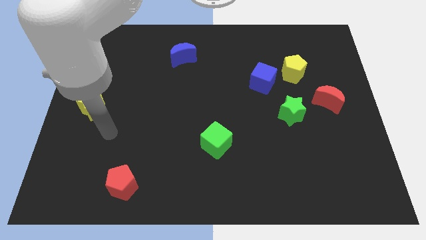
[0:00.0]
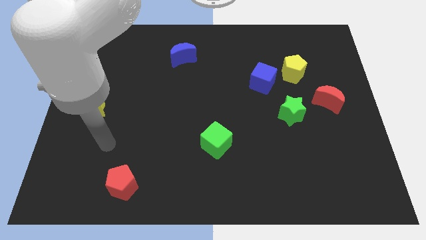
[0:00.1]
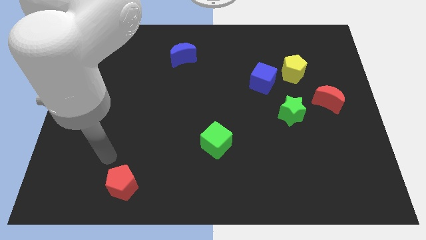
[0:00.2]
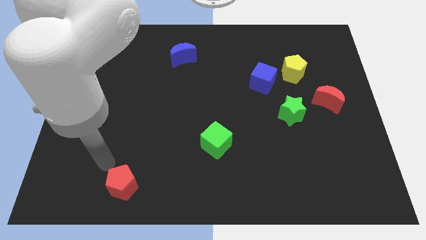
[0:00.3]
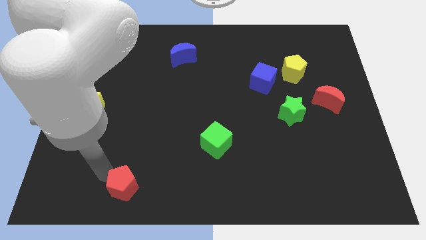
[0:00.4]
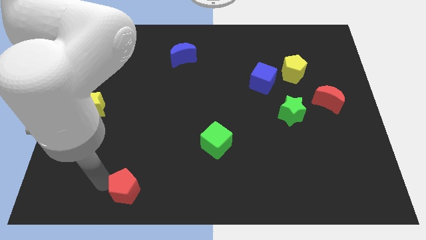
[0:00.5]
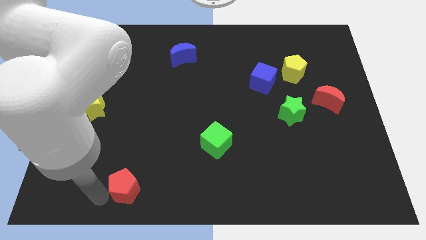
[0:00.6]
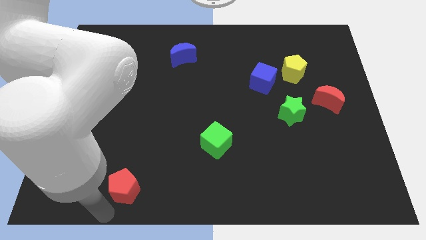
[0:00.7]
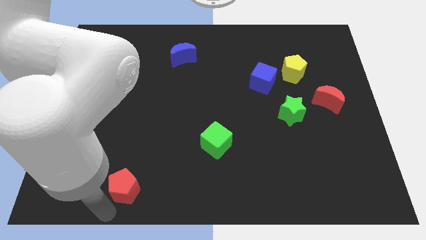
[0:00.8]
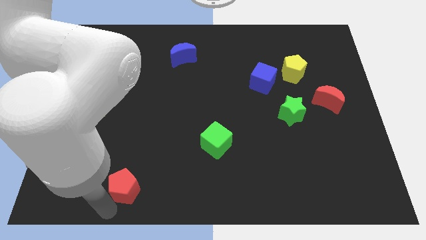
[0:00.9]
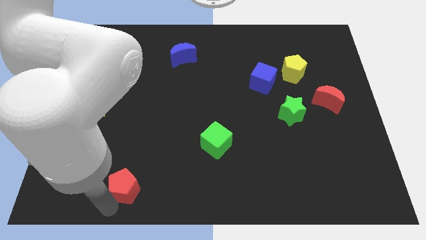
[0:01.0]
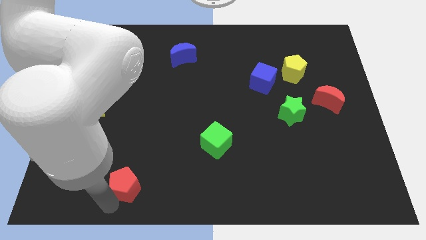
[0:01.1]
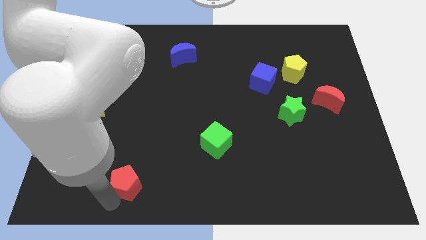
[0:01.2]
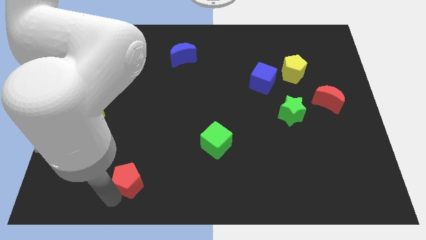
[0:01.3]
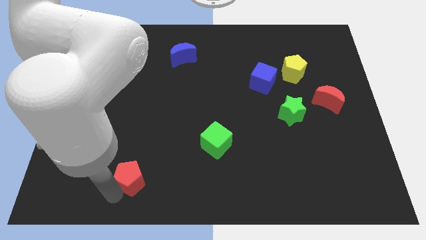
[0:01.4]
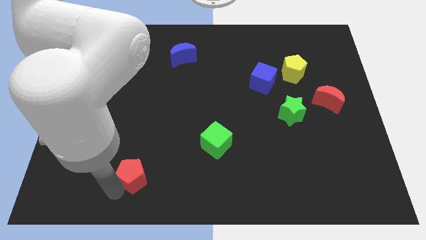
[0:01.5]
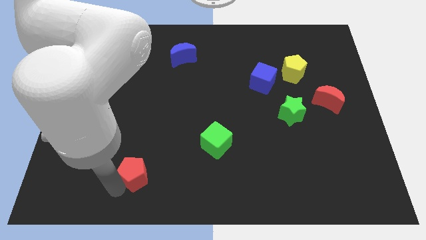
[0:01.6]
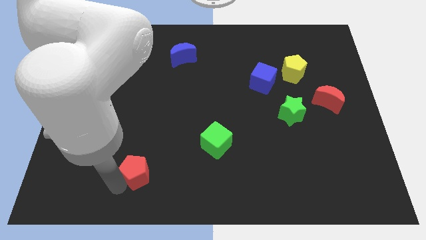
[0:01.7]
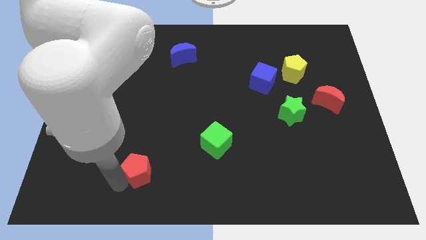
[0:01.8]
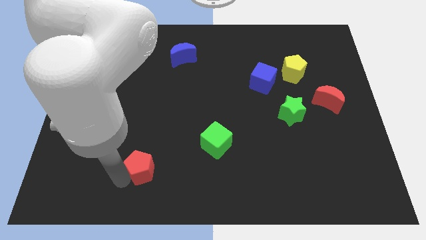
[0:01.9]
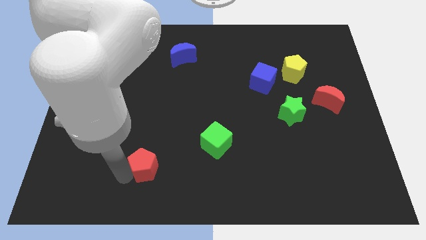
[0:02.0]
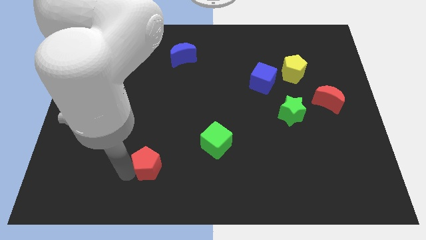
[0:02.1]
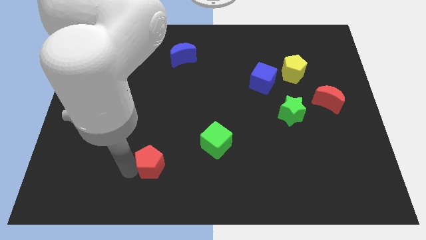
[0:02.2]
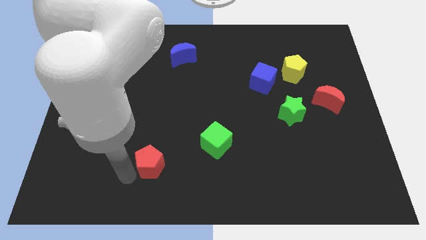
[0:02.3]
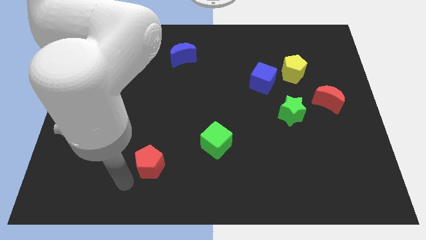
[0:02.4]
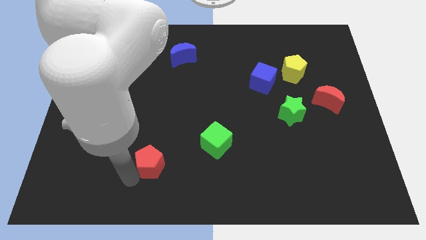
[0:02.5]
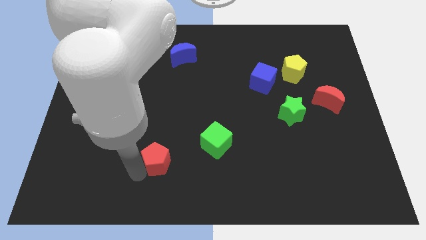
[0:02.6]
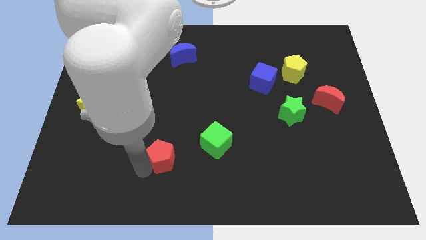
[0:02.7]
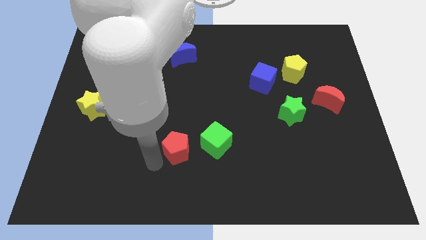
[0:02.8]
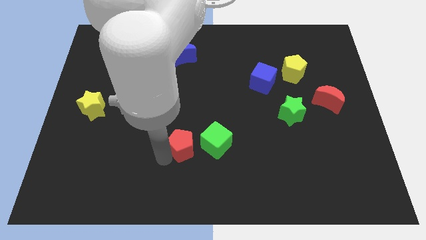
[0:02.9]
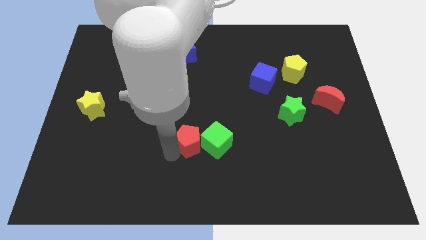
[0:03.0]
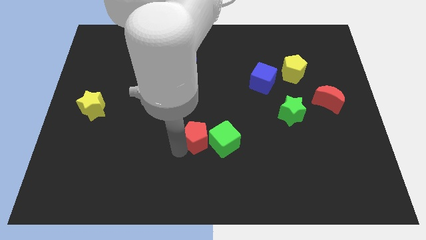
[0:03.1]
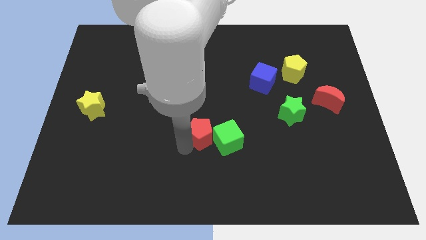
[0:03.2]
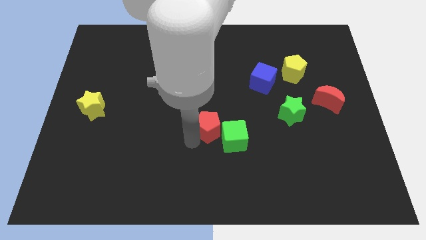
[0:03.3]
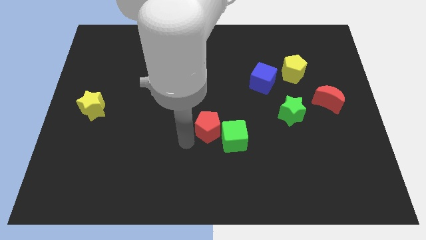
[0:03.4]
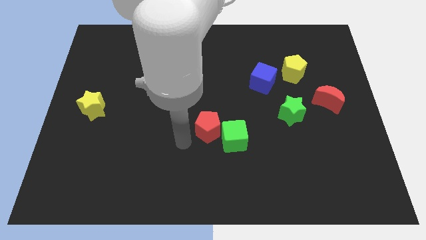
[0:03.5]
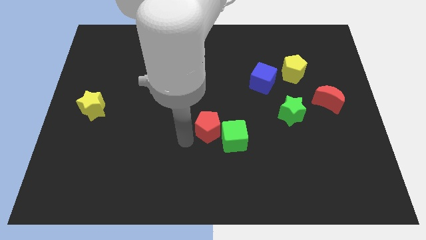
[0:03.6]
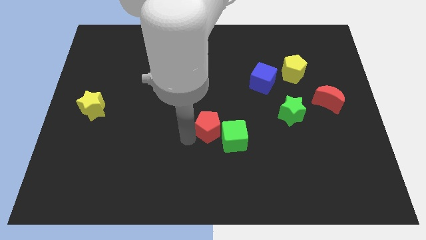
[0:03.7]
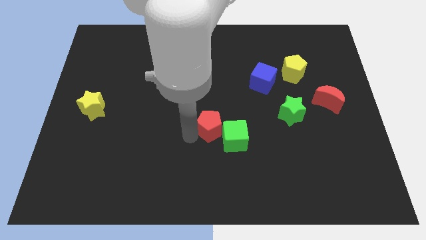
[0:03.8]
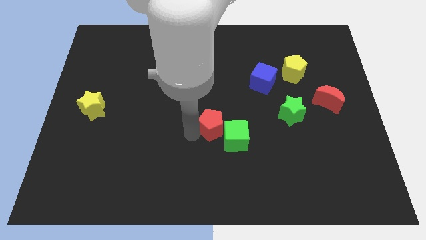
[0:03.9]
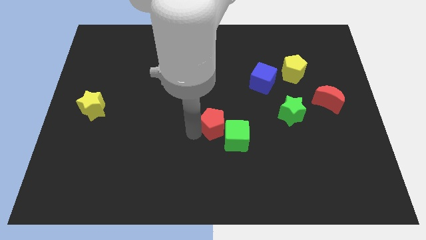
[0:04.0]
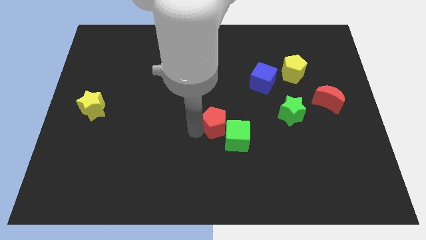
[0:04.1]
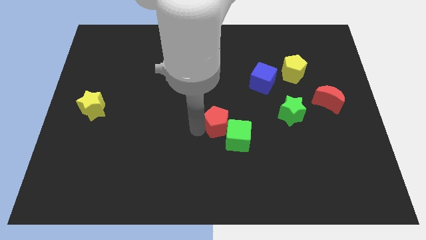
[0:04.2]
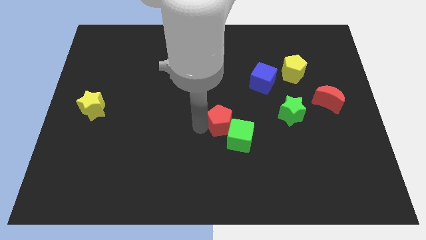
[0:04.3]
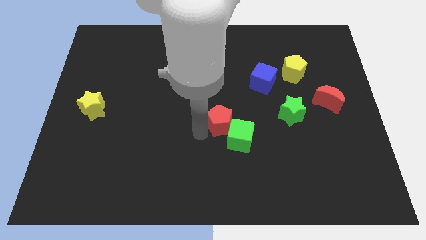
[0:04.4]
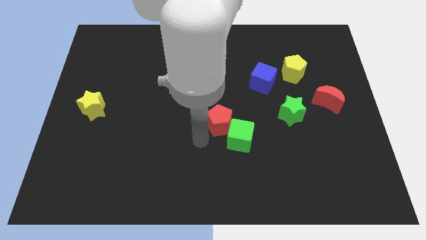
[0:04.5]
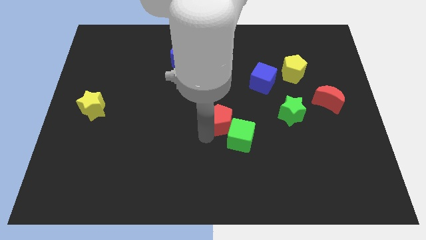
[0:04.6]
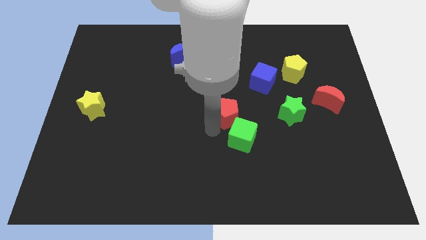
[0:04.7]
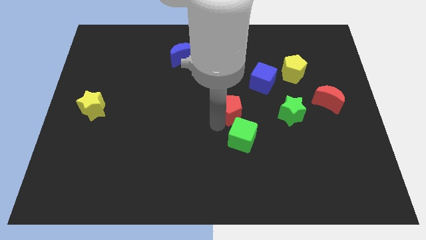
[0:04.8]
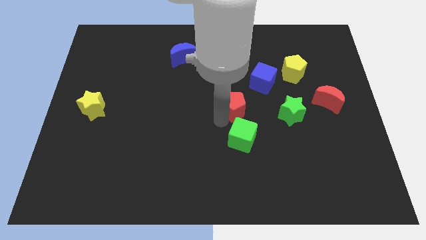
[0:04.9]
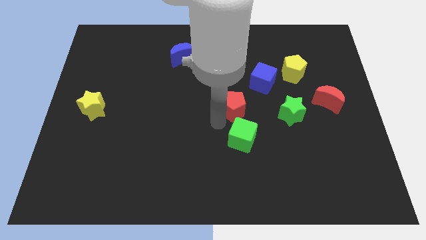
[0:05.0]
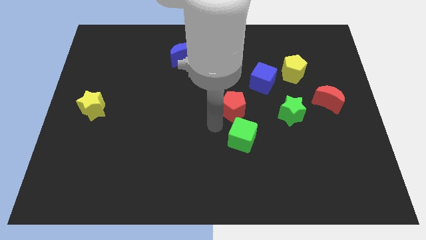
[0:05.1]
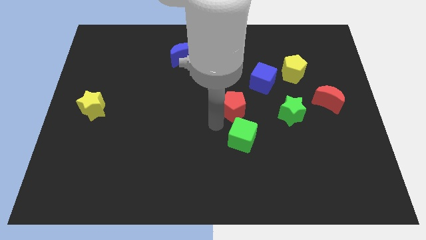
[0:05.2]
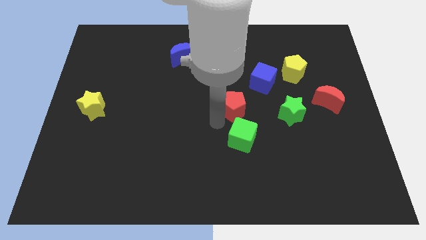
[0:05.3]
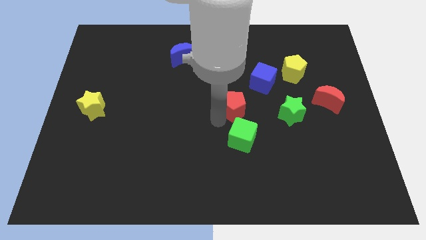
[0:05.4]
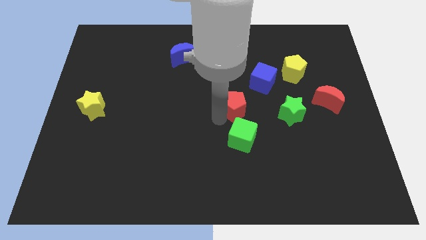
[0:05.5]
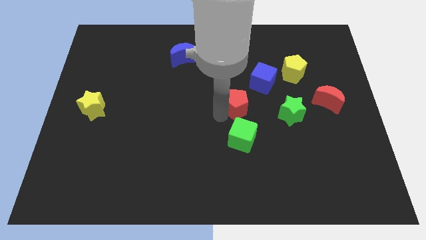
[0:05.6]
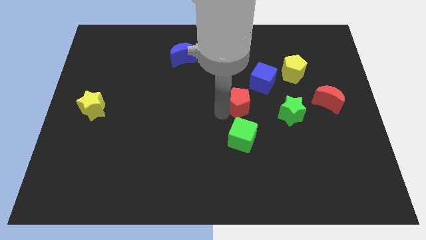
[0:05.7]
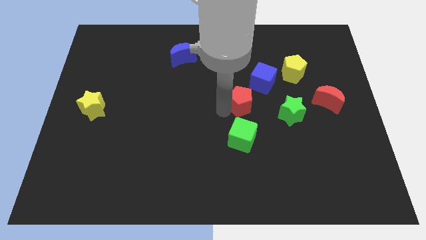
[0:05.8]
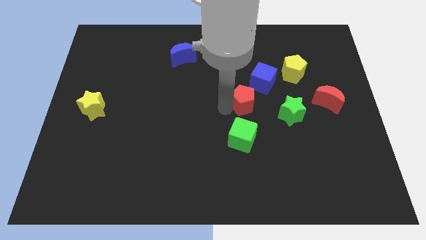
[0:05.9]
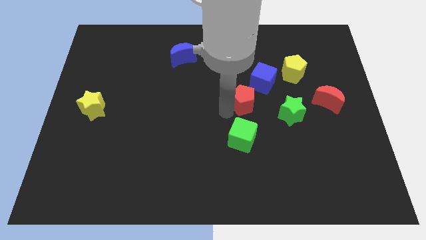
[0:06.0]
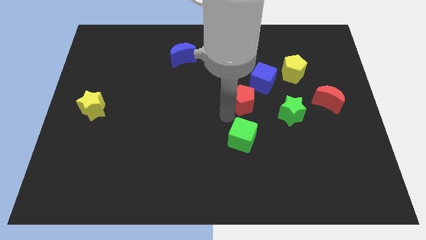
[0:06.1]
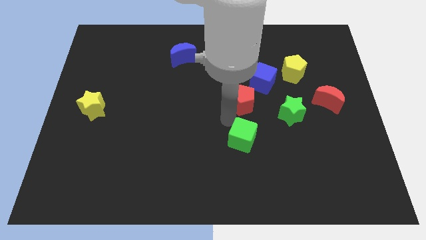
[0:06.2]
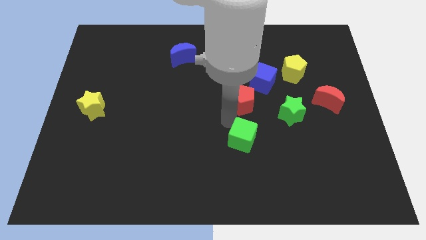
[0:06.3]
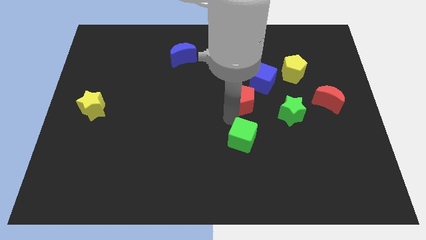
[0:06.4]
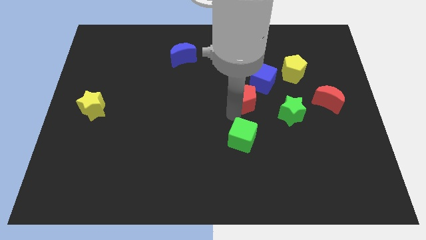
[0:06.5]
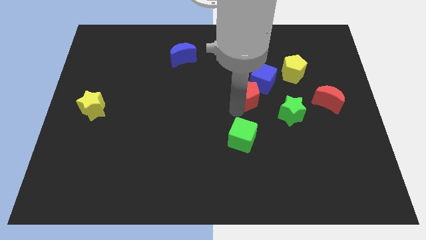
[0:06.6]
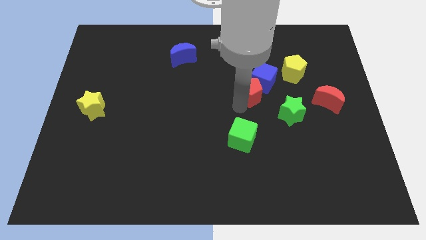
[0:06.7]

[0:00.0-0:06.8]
put the red pentagon close to the blue cube
